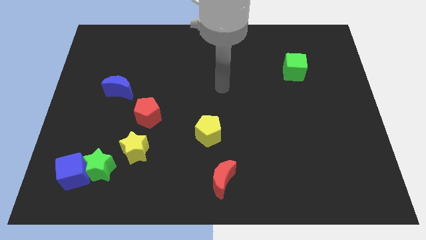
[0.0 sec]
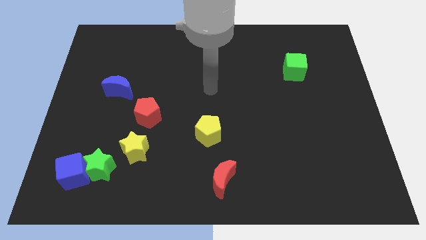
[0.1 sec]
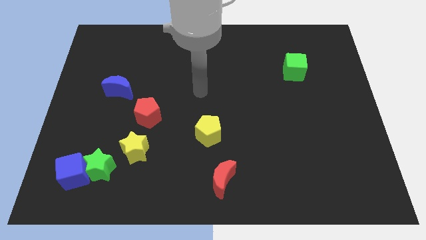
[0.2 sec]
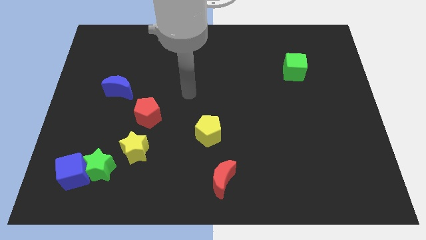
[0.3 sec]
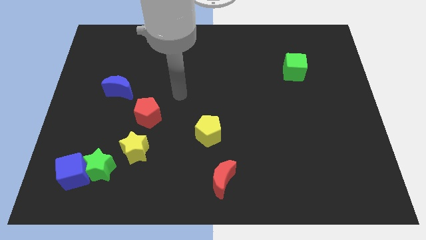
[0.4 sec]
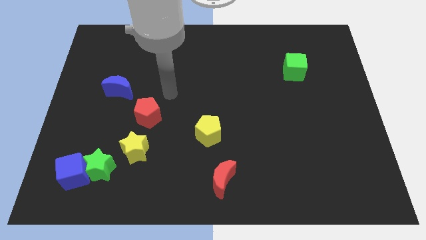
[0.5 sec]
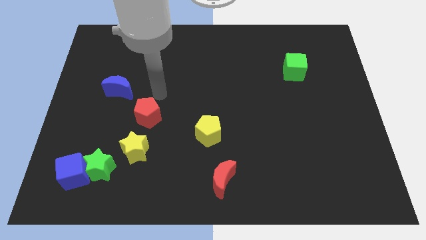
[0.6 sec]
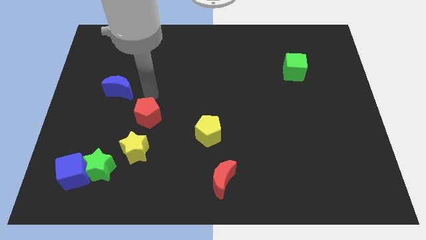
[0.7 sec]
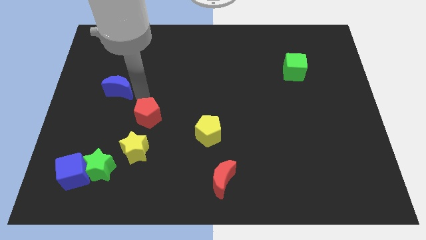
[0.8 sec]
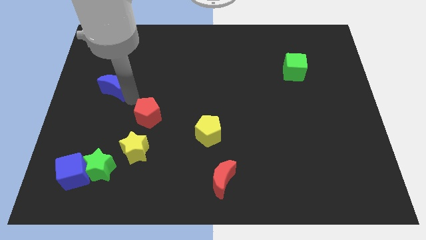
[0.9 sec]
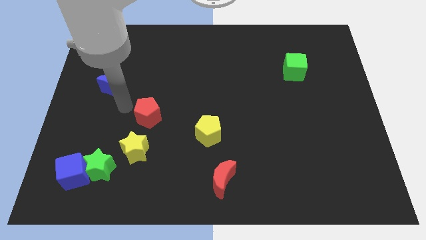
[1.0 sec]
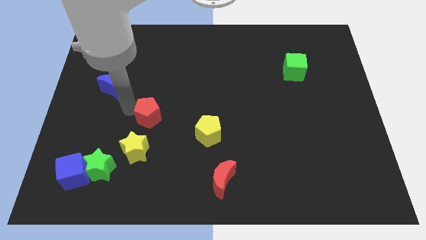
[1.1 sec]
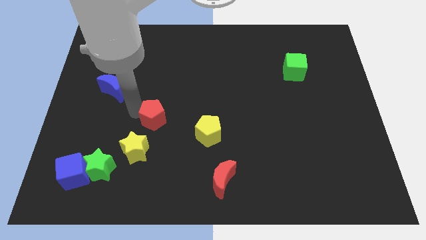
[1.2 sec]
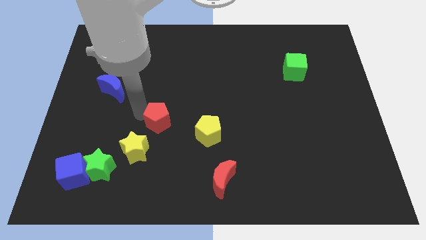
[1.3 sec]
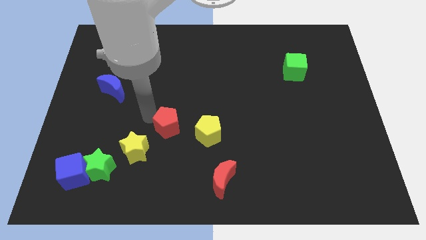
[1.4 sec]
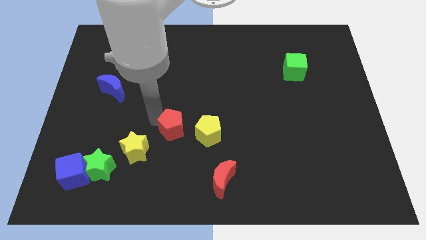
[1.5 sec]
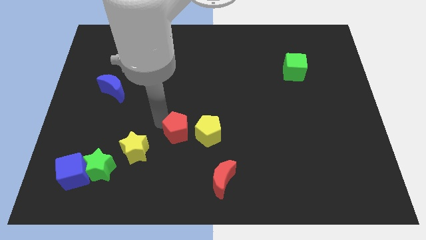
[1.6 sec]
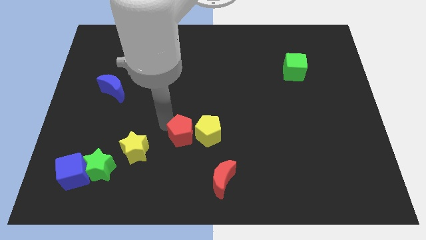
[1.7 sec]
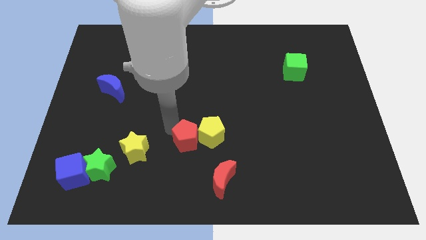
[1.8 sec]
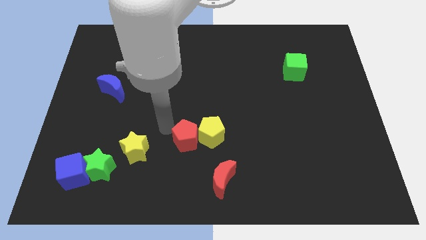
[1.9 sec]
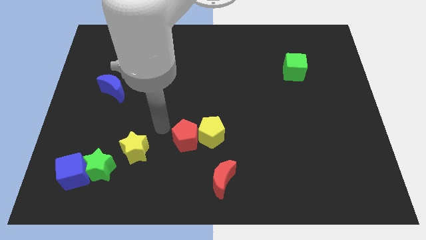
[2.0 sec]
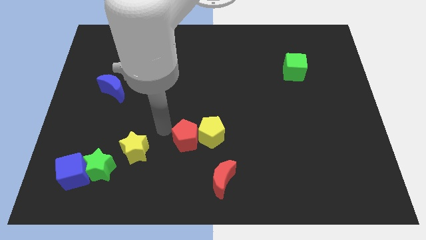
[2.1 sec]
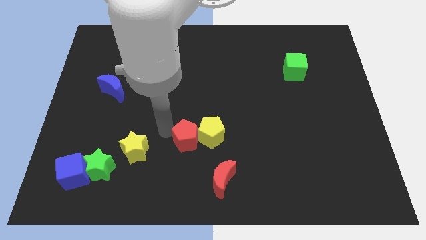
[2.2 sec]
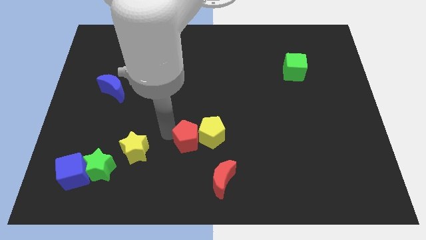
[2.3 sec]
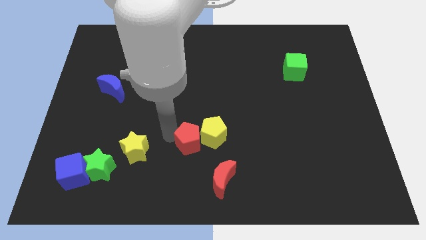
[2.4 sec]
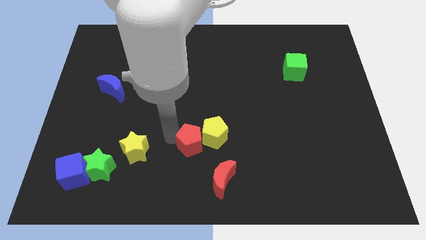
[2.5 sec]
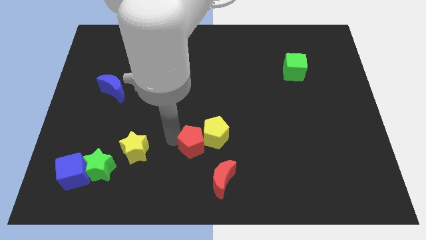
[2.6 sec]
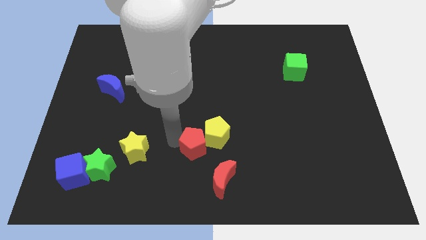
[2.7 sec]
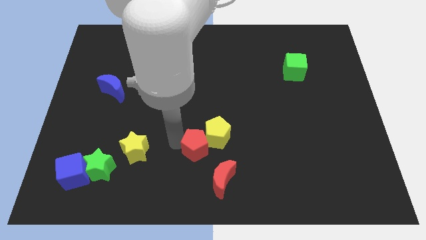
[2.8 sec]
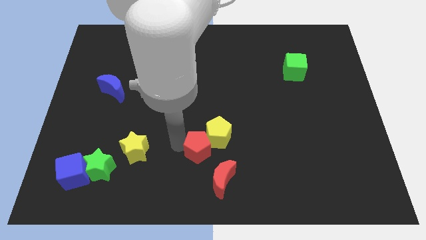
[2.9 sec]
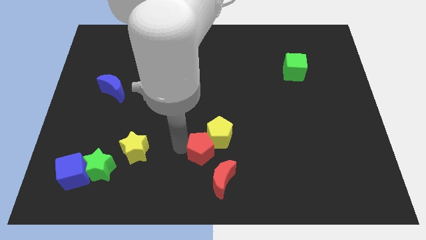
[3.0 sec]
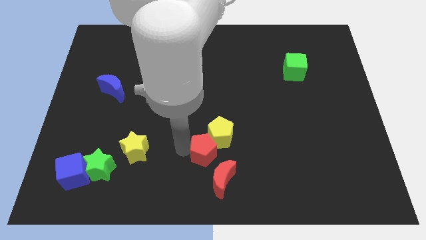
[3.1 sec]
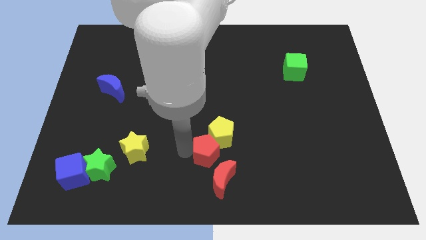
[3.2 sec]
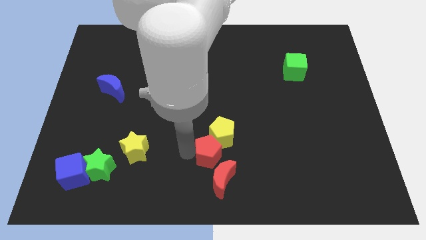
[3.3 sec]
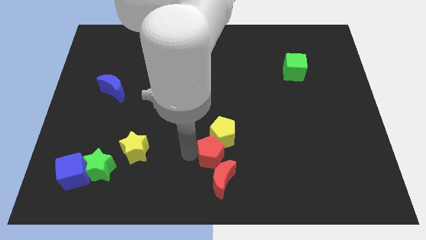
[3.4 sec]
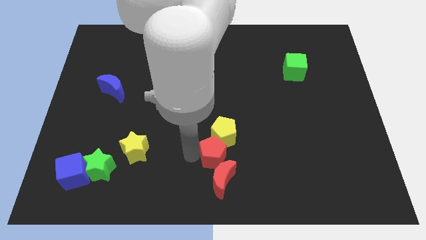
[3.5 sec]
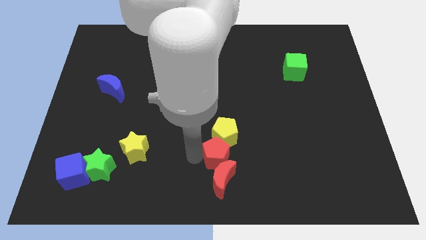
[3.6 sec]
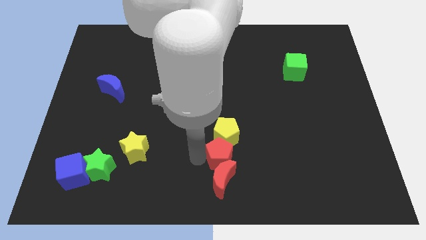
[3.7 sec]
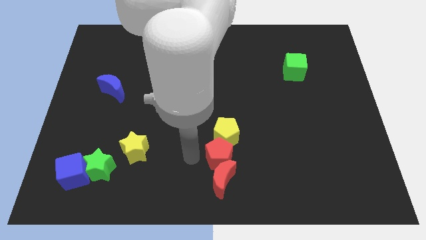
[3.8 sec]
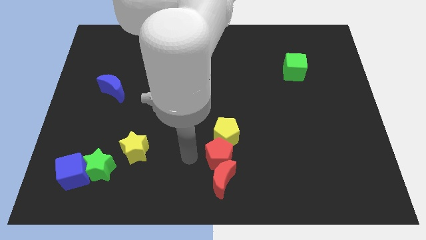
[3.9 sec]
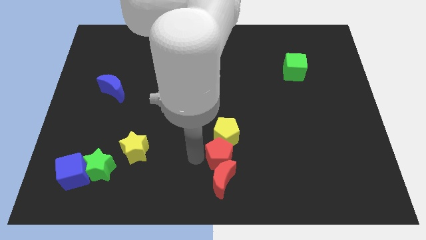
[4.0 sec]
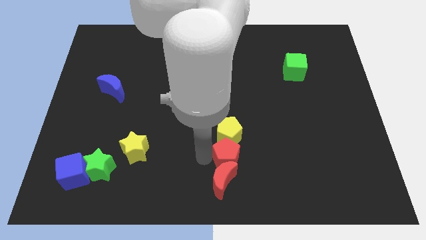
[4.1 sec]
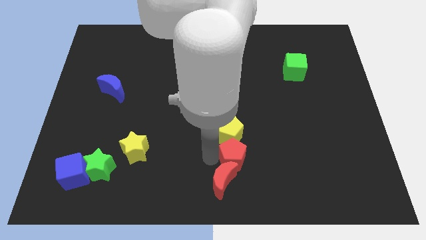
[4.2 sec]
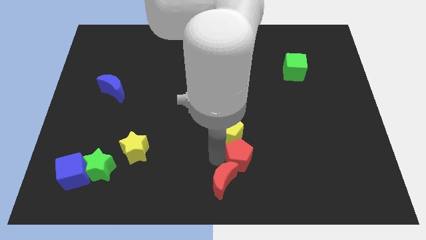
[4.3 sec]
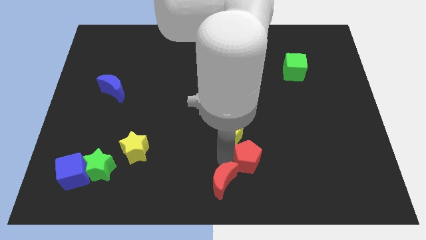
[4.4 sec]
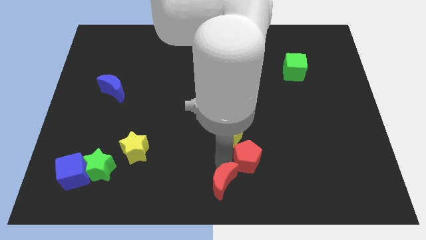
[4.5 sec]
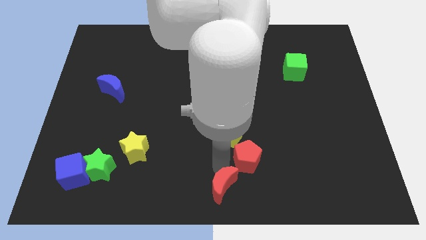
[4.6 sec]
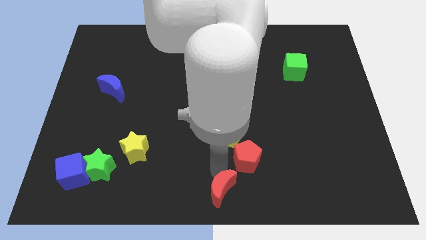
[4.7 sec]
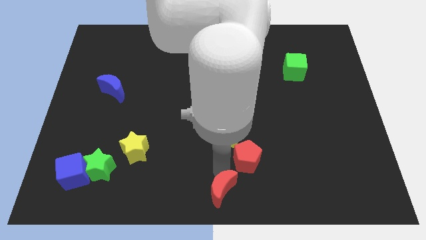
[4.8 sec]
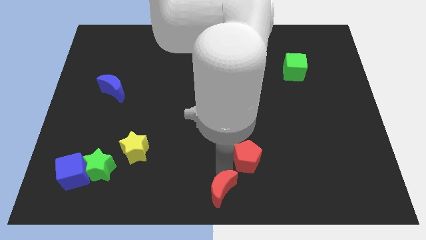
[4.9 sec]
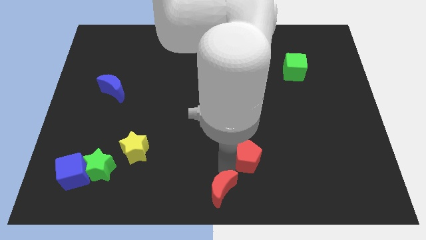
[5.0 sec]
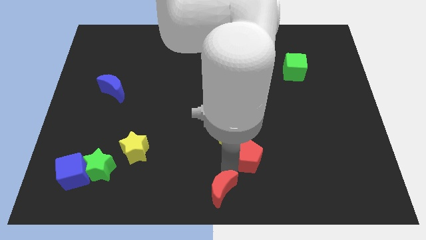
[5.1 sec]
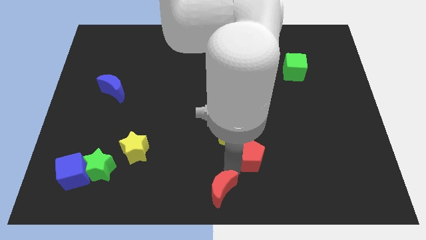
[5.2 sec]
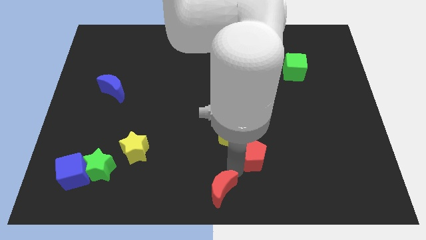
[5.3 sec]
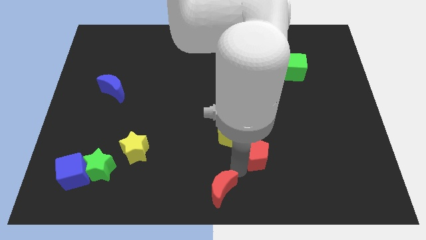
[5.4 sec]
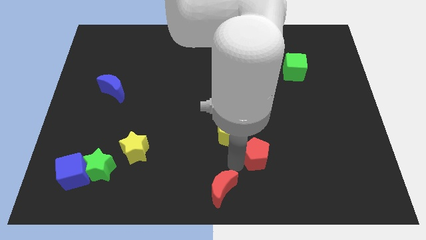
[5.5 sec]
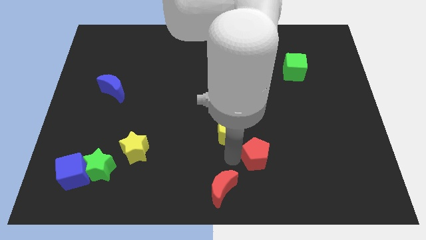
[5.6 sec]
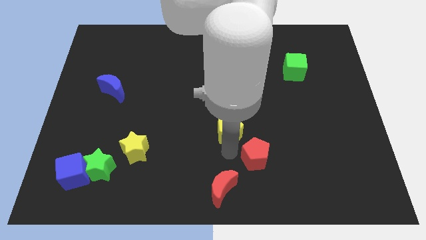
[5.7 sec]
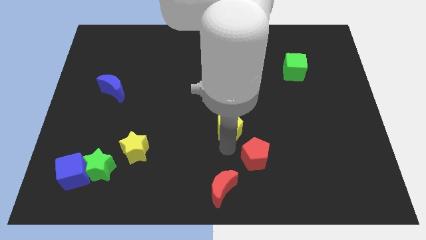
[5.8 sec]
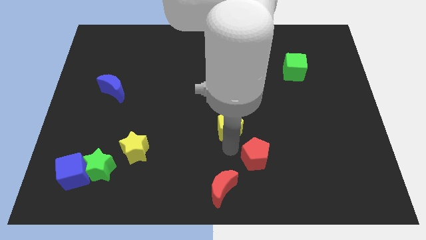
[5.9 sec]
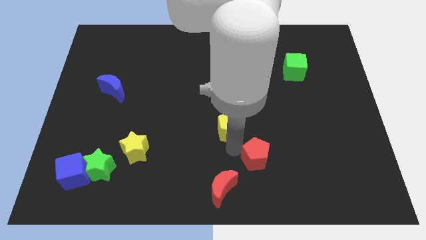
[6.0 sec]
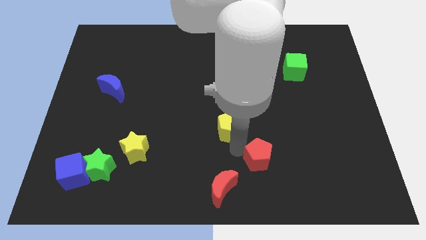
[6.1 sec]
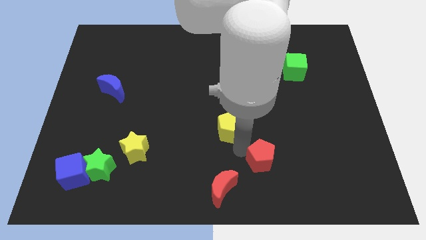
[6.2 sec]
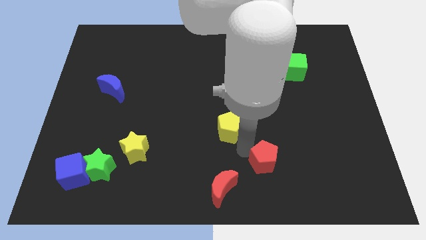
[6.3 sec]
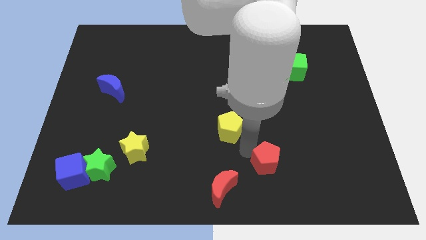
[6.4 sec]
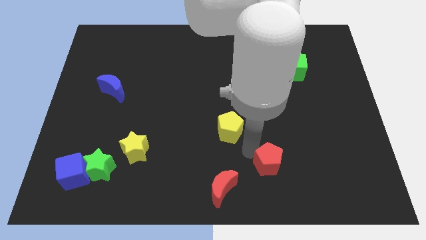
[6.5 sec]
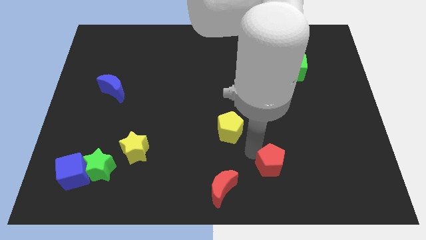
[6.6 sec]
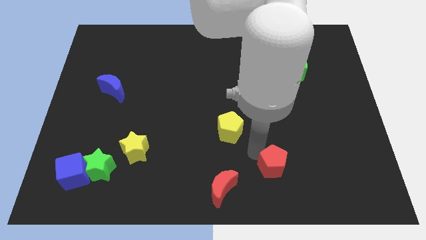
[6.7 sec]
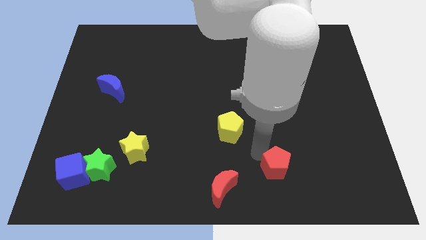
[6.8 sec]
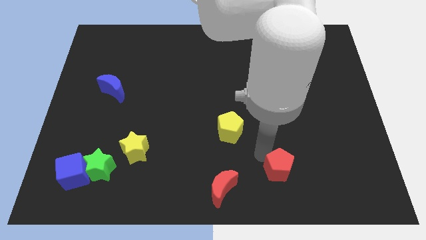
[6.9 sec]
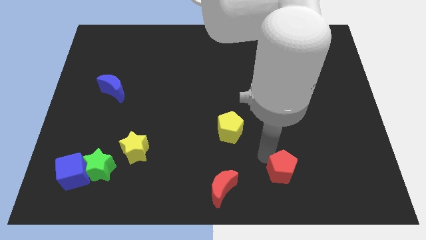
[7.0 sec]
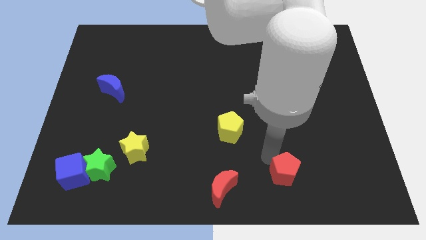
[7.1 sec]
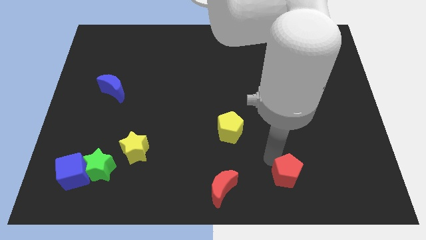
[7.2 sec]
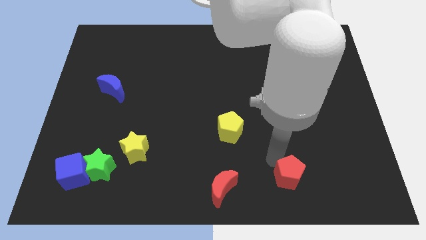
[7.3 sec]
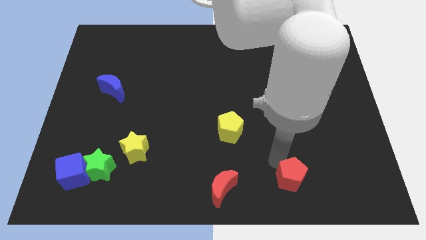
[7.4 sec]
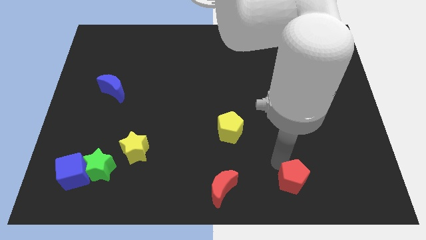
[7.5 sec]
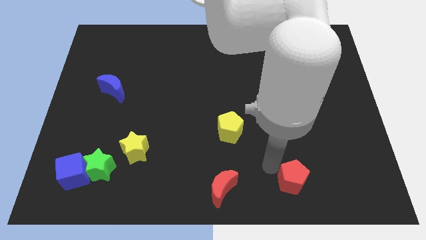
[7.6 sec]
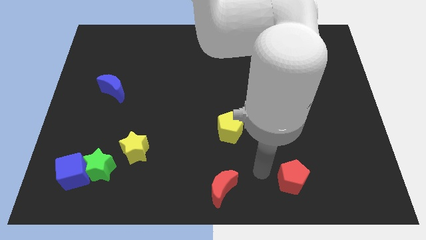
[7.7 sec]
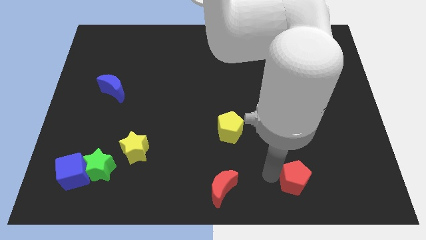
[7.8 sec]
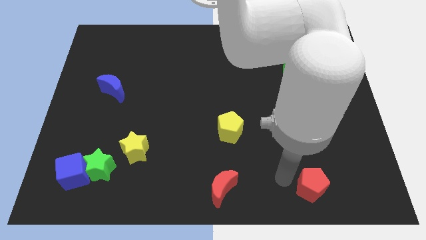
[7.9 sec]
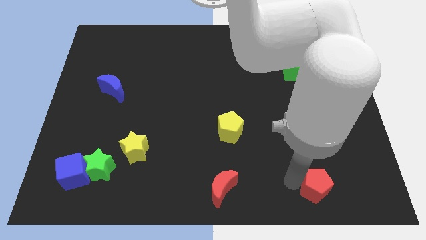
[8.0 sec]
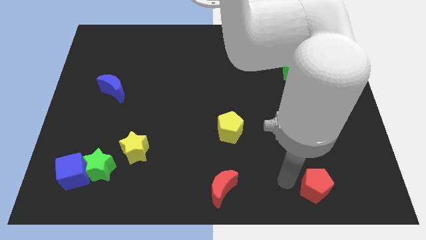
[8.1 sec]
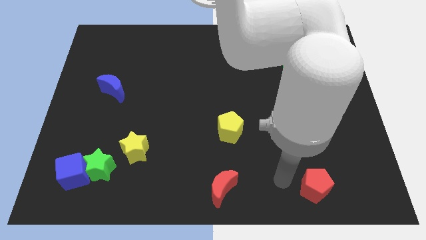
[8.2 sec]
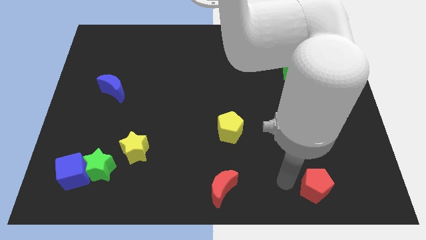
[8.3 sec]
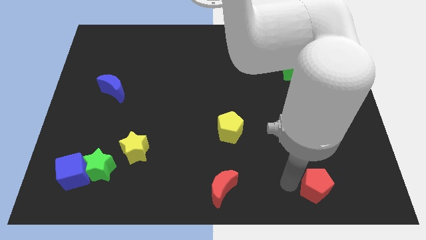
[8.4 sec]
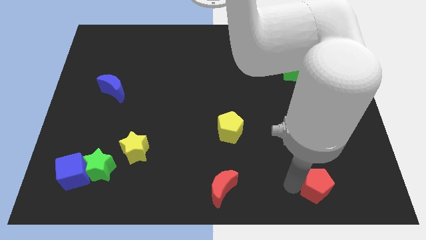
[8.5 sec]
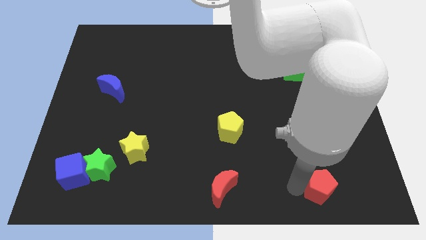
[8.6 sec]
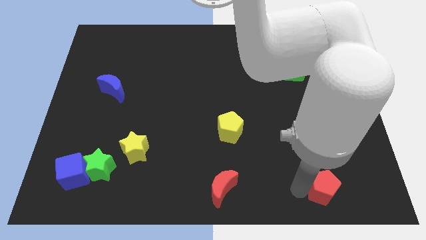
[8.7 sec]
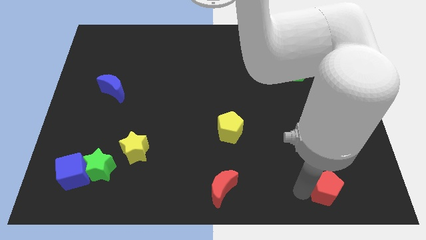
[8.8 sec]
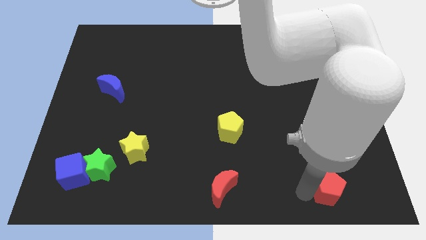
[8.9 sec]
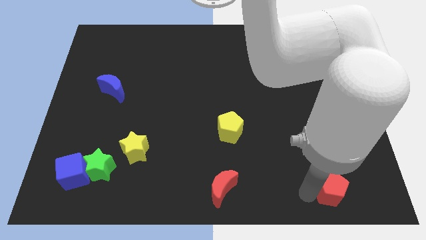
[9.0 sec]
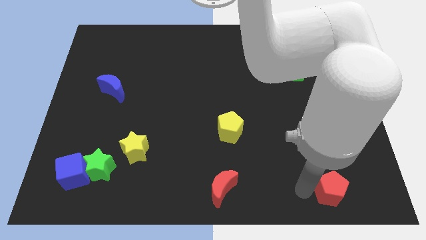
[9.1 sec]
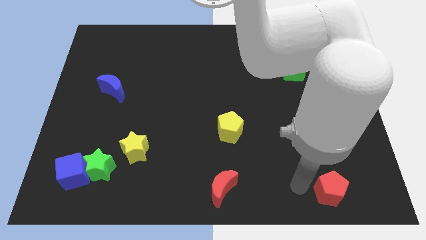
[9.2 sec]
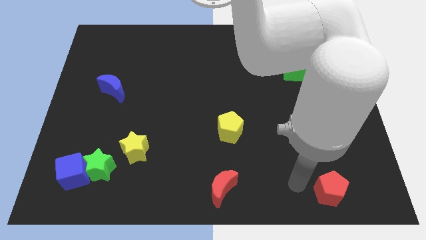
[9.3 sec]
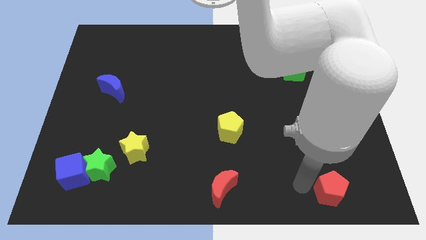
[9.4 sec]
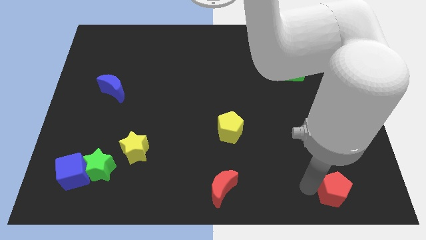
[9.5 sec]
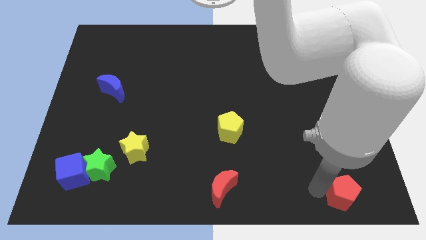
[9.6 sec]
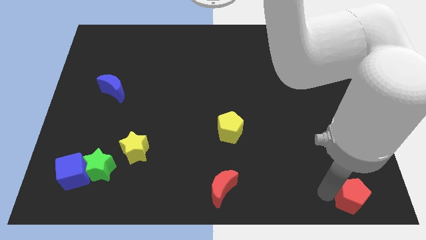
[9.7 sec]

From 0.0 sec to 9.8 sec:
slide the red pentagon to the lower right corner
